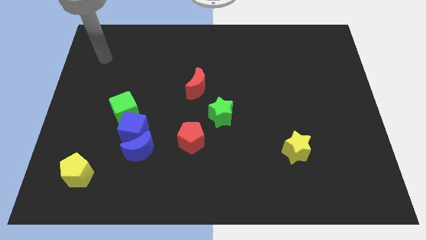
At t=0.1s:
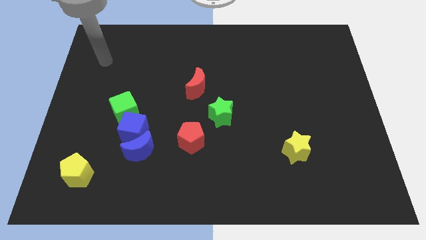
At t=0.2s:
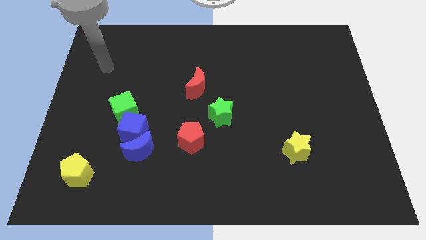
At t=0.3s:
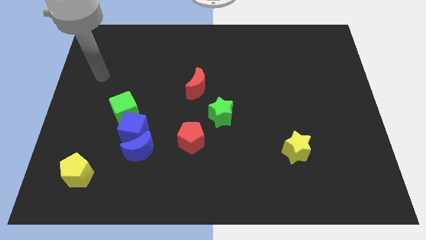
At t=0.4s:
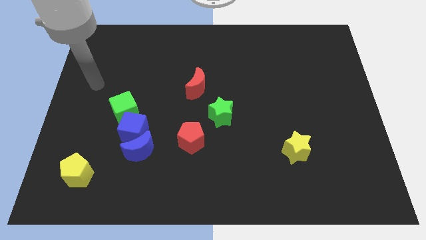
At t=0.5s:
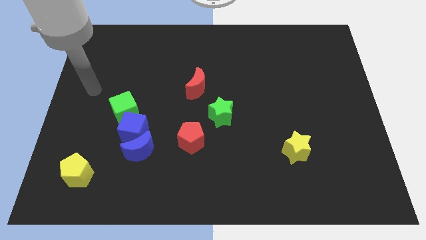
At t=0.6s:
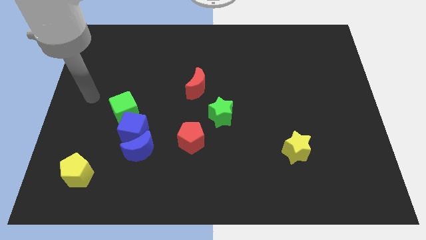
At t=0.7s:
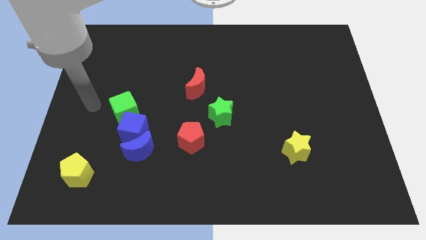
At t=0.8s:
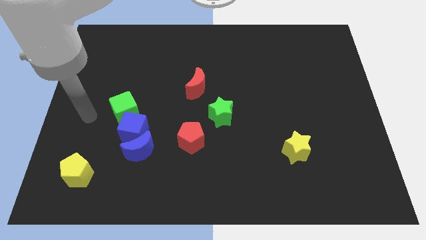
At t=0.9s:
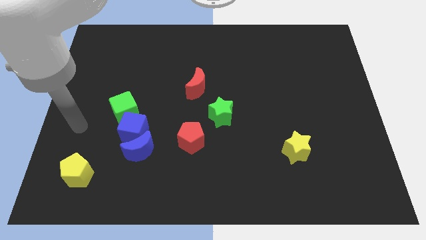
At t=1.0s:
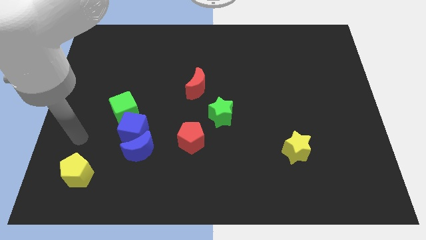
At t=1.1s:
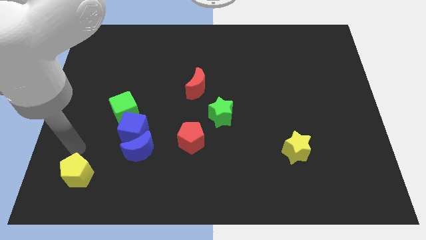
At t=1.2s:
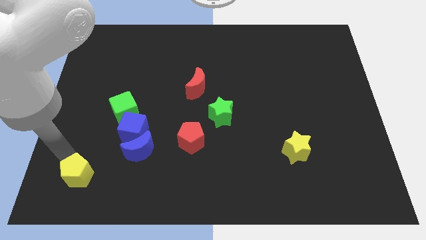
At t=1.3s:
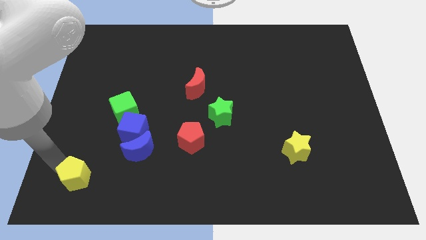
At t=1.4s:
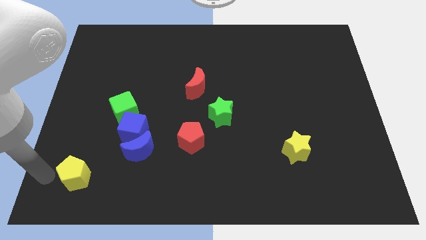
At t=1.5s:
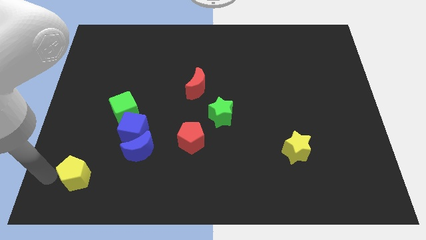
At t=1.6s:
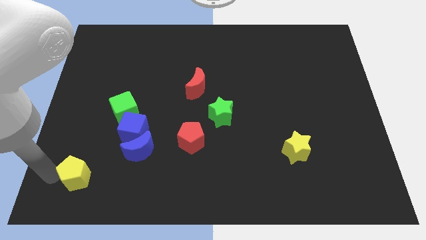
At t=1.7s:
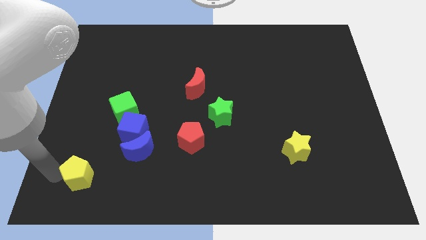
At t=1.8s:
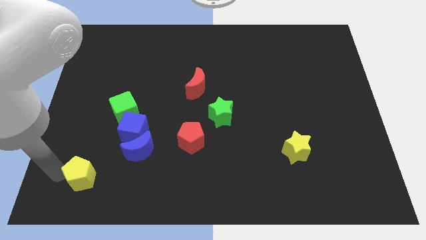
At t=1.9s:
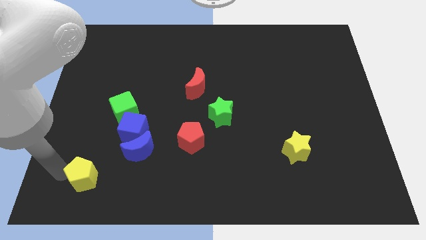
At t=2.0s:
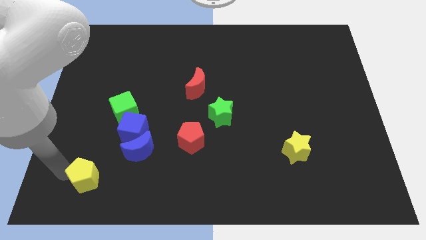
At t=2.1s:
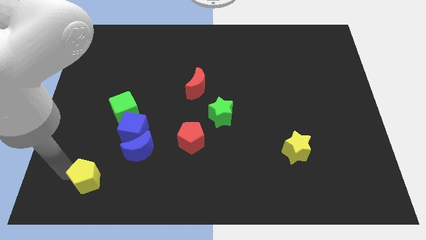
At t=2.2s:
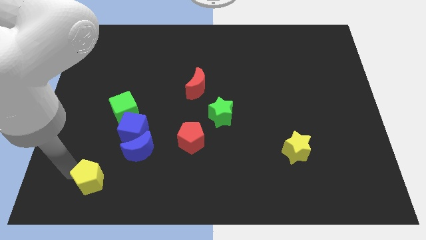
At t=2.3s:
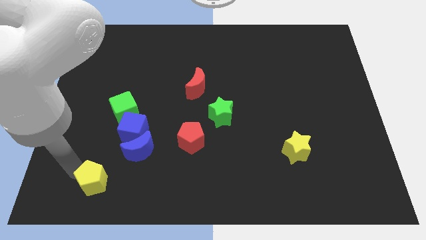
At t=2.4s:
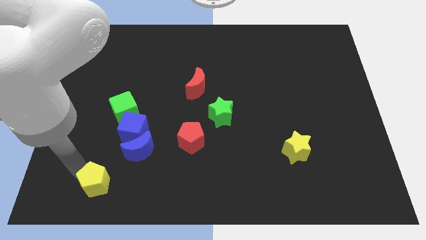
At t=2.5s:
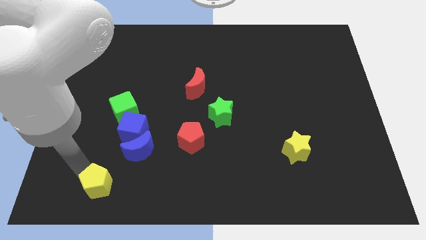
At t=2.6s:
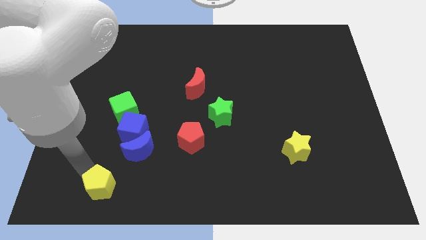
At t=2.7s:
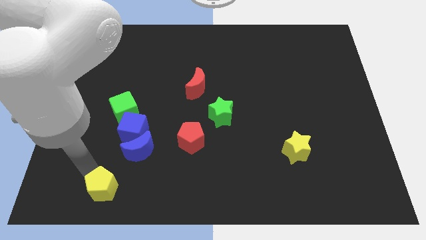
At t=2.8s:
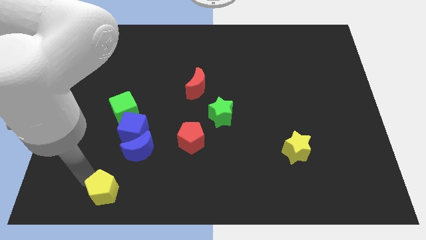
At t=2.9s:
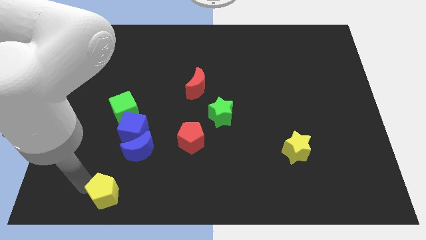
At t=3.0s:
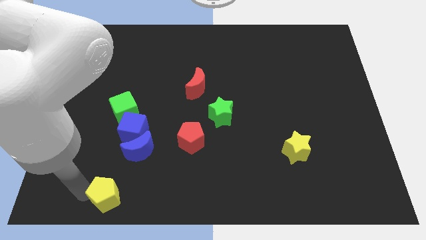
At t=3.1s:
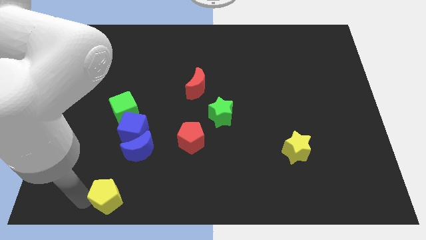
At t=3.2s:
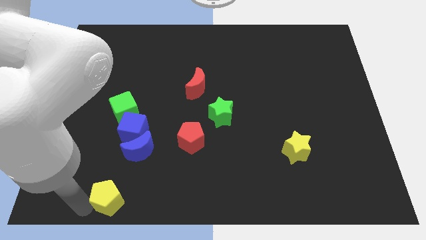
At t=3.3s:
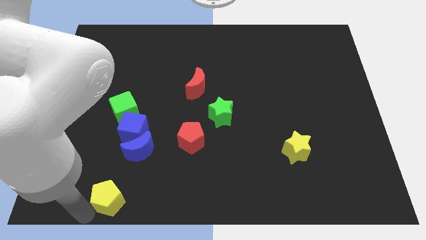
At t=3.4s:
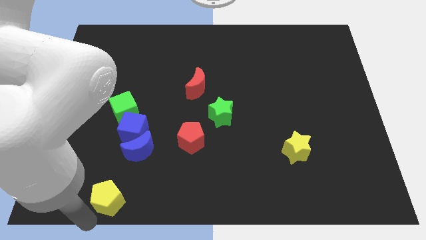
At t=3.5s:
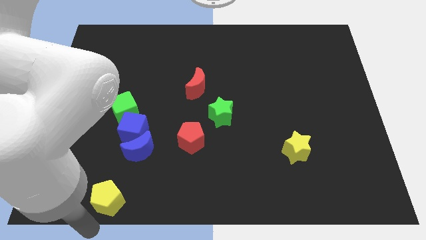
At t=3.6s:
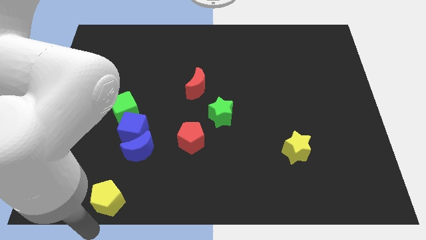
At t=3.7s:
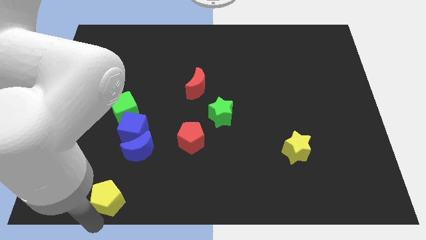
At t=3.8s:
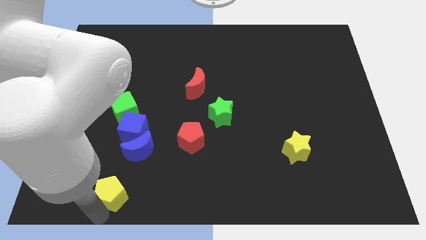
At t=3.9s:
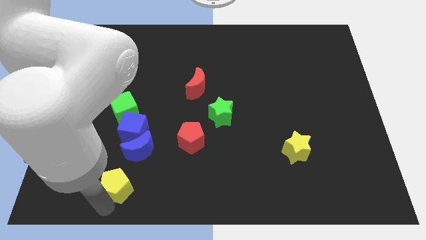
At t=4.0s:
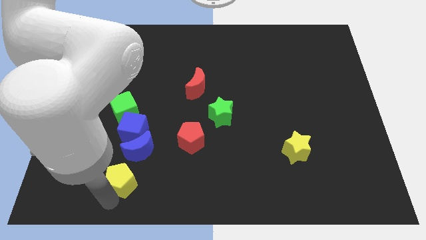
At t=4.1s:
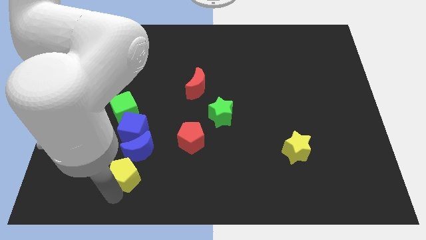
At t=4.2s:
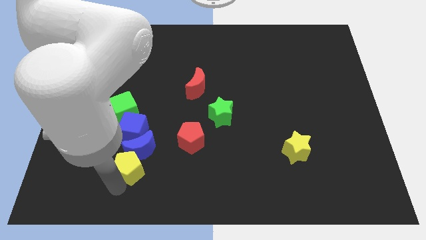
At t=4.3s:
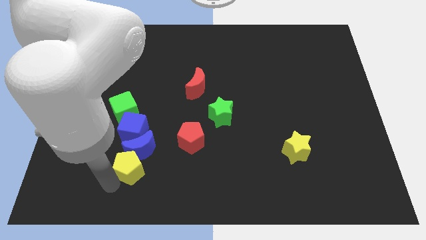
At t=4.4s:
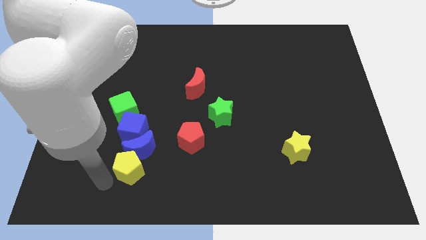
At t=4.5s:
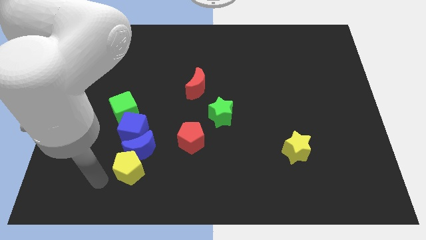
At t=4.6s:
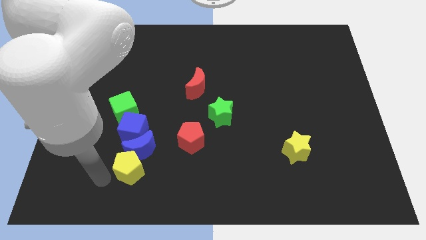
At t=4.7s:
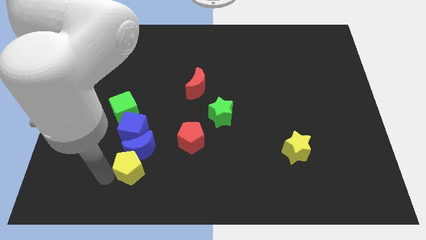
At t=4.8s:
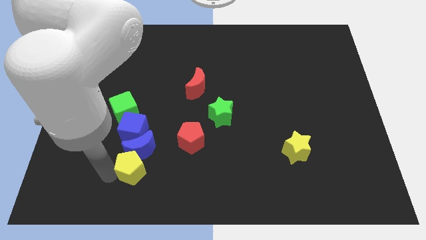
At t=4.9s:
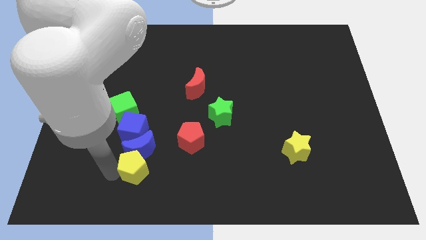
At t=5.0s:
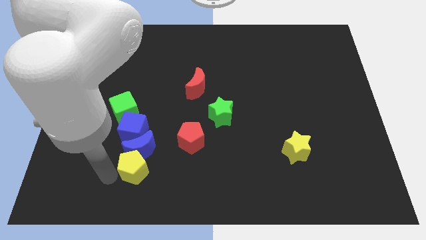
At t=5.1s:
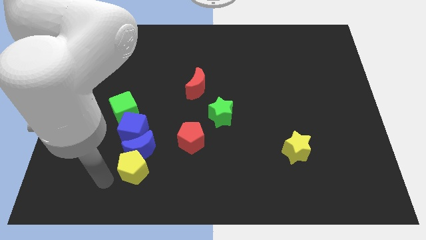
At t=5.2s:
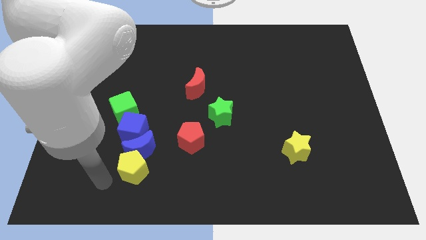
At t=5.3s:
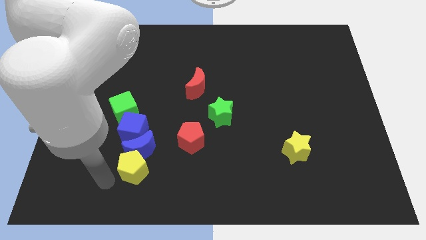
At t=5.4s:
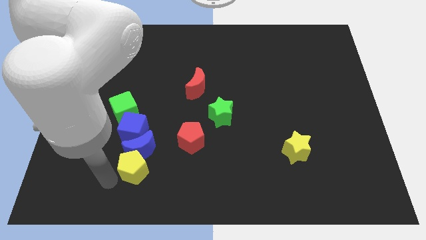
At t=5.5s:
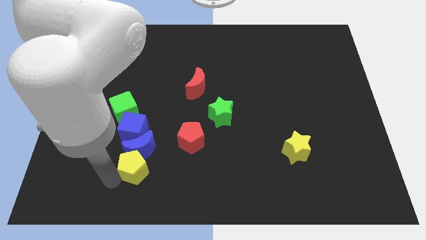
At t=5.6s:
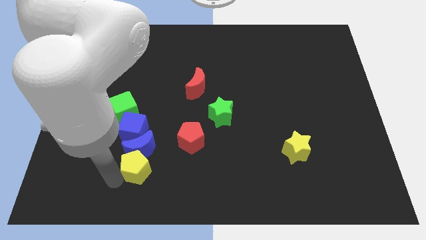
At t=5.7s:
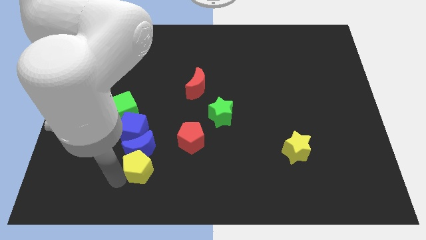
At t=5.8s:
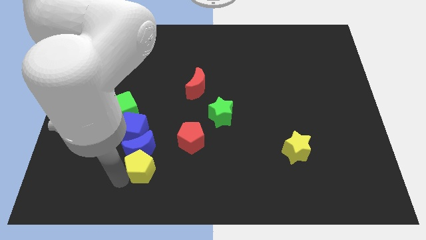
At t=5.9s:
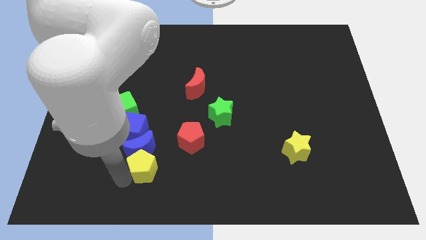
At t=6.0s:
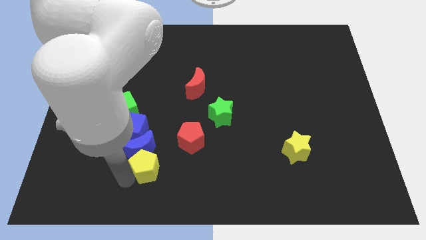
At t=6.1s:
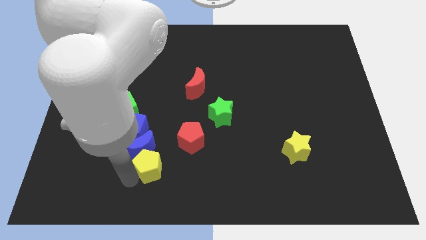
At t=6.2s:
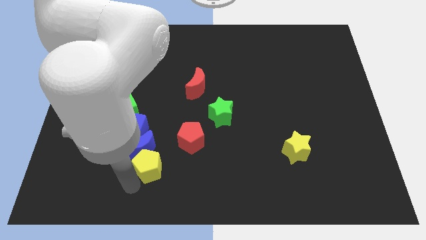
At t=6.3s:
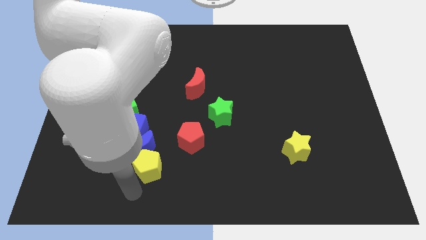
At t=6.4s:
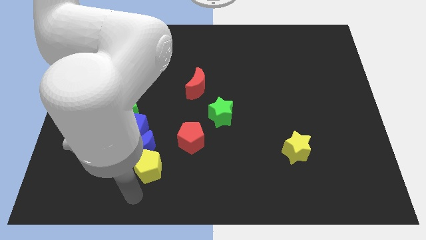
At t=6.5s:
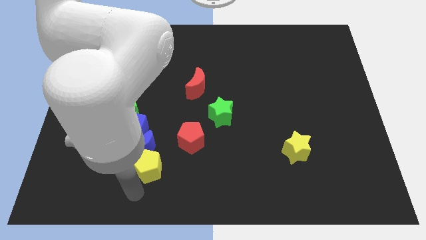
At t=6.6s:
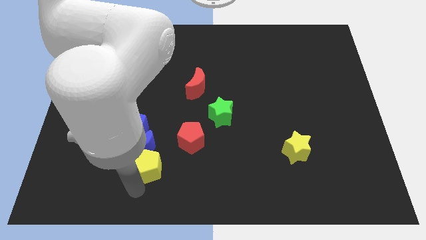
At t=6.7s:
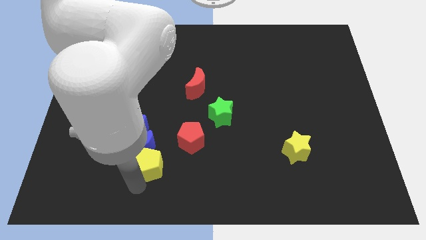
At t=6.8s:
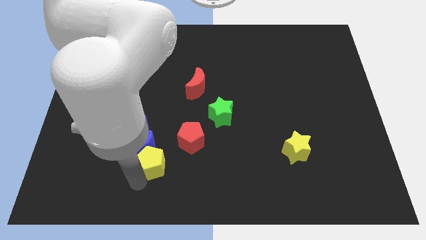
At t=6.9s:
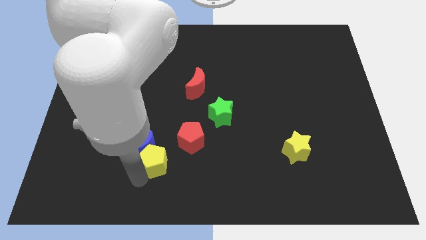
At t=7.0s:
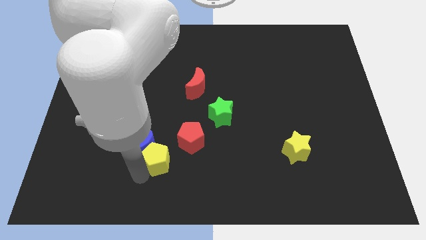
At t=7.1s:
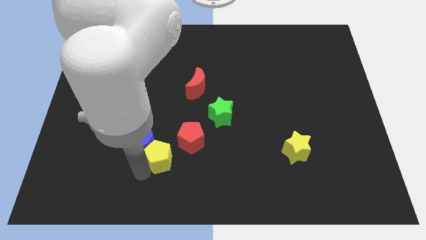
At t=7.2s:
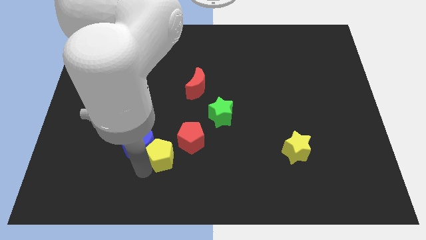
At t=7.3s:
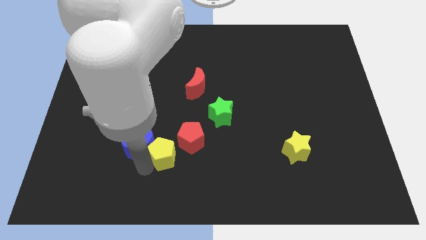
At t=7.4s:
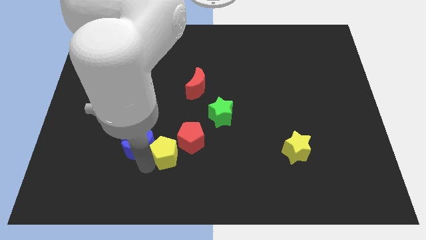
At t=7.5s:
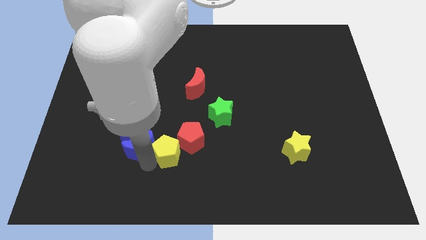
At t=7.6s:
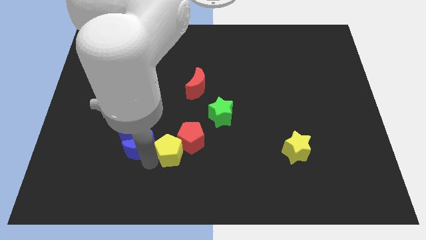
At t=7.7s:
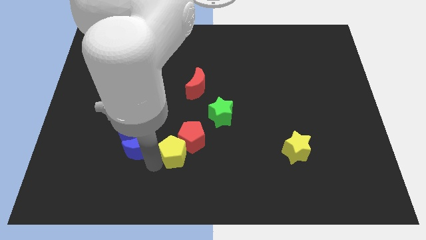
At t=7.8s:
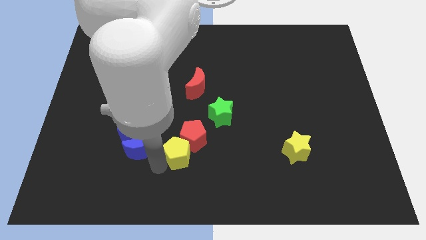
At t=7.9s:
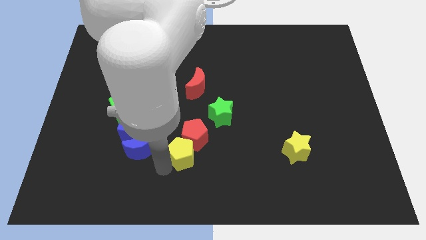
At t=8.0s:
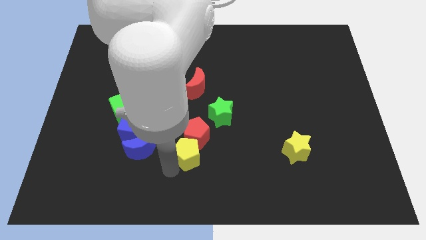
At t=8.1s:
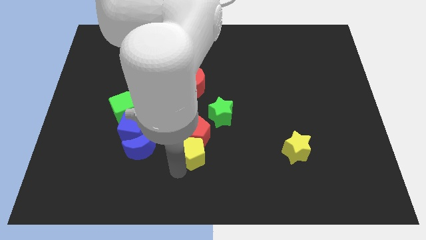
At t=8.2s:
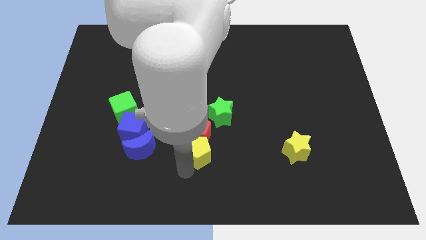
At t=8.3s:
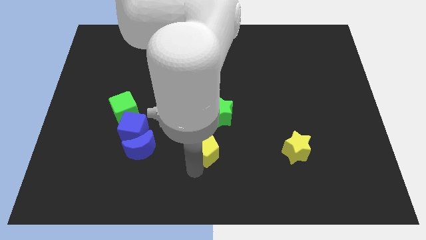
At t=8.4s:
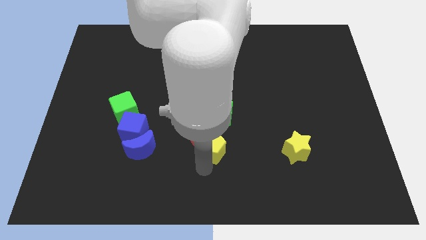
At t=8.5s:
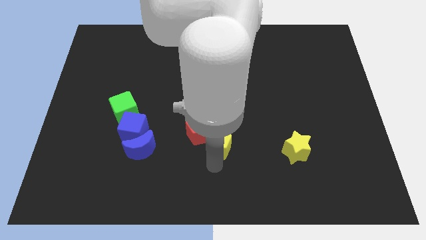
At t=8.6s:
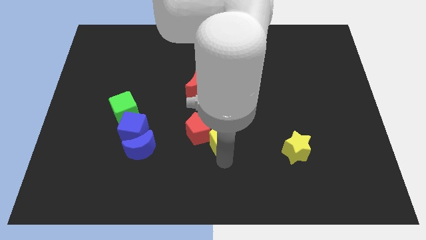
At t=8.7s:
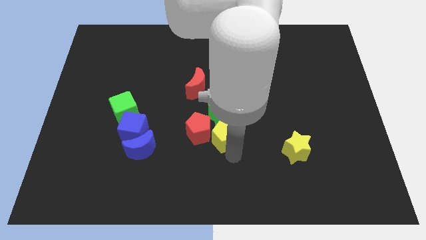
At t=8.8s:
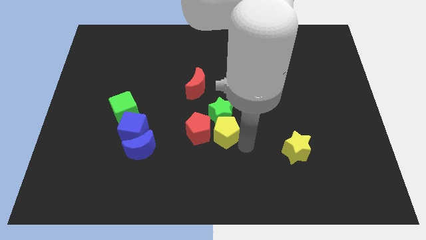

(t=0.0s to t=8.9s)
push the yellow pentagon towards the green star
